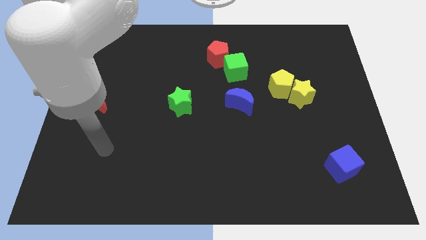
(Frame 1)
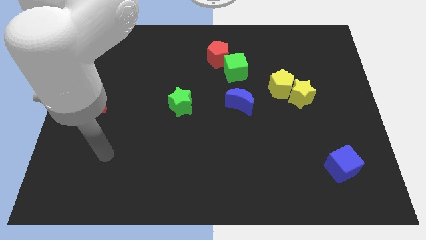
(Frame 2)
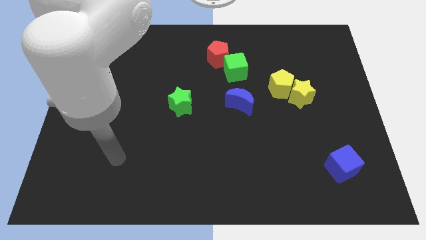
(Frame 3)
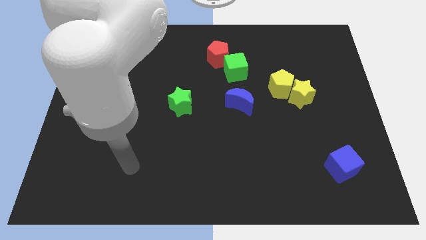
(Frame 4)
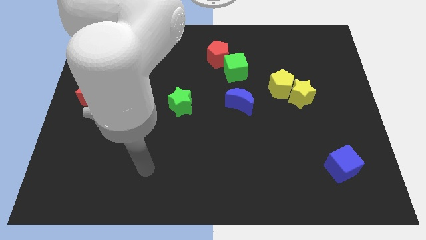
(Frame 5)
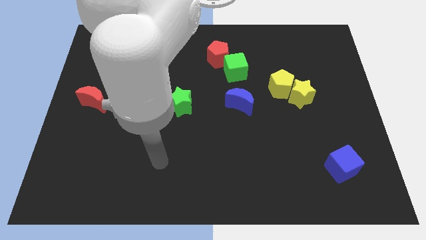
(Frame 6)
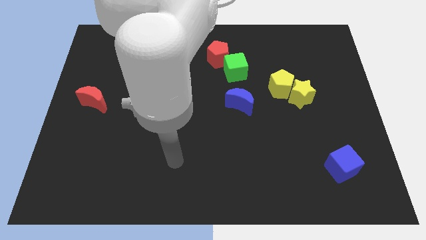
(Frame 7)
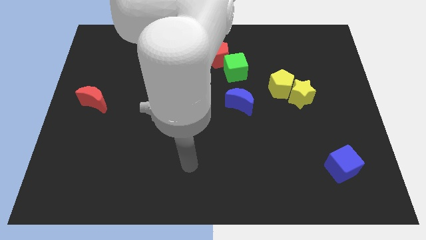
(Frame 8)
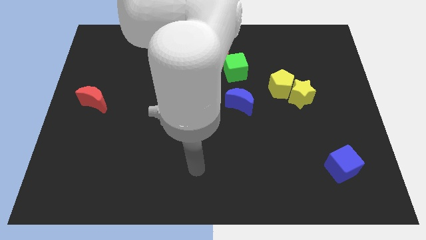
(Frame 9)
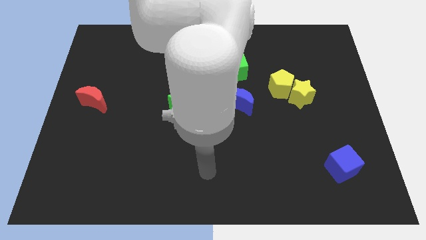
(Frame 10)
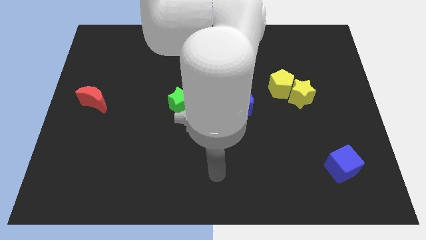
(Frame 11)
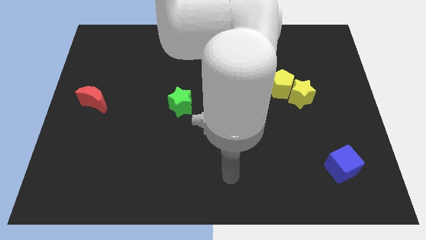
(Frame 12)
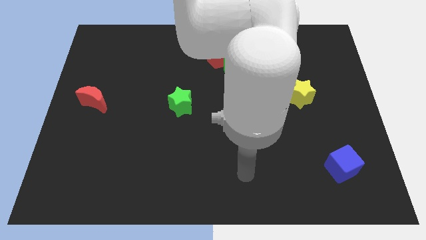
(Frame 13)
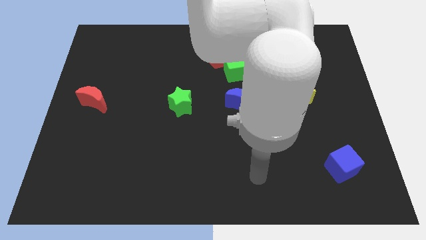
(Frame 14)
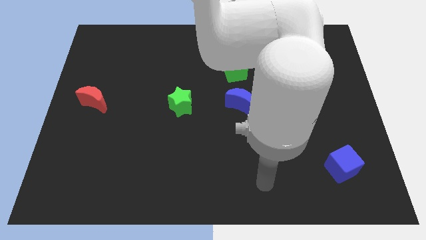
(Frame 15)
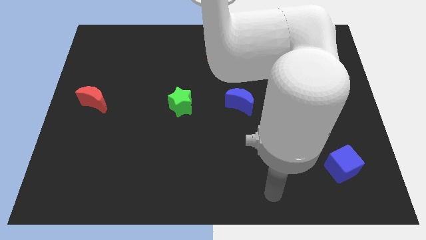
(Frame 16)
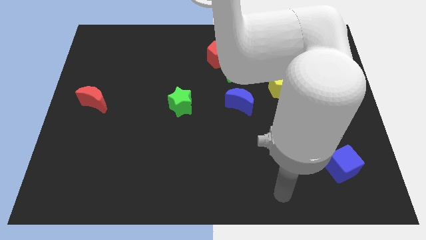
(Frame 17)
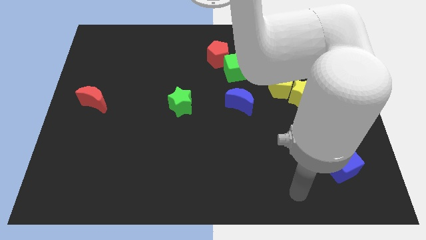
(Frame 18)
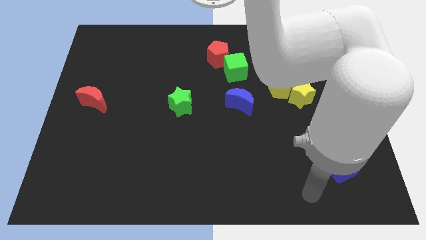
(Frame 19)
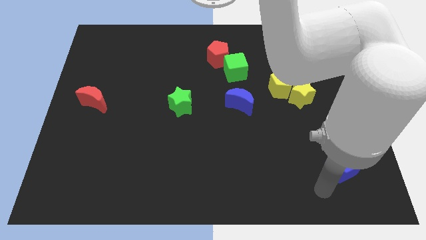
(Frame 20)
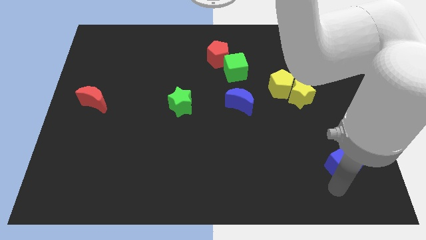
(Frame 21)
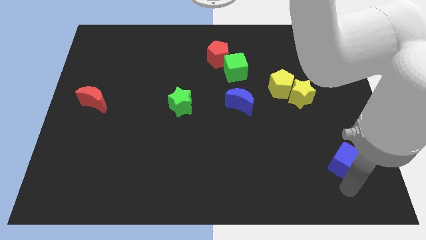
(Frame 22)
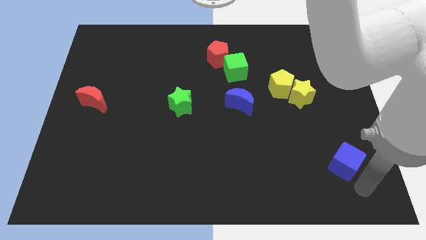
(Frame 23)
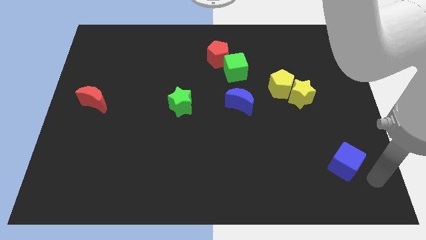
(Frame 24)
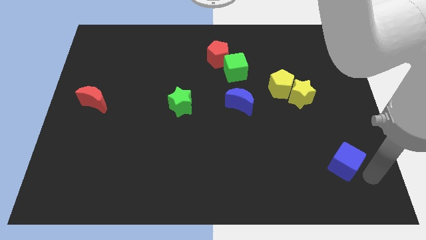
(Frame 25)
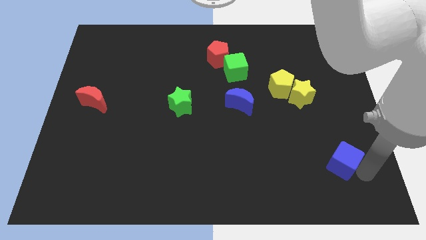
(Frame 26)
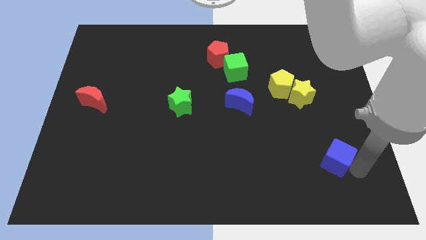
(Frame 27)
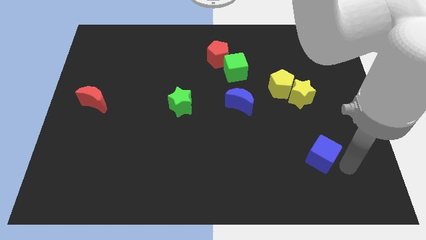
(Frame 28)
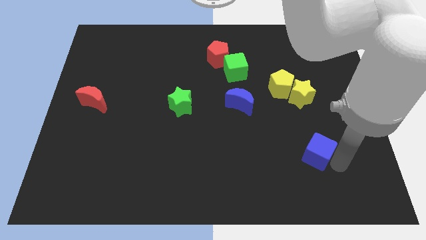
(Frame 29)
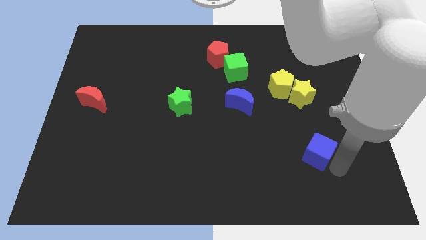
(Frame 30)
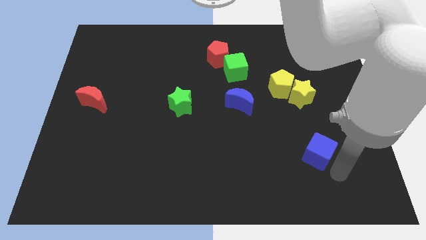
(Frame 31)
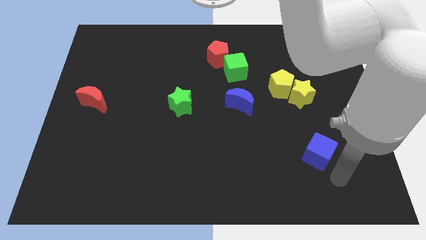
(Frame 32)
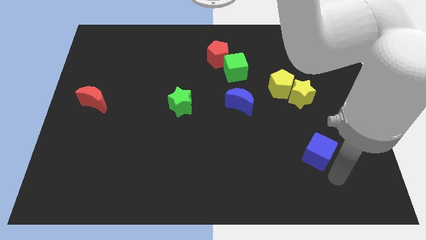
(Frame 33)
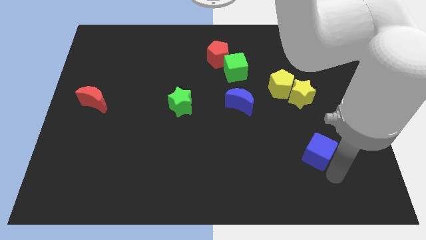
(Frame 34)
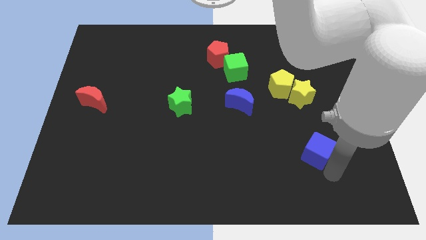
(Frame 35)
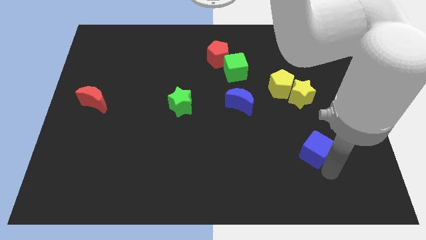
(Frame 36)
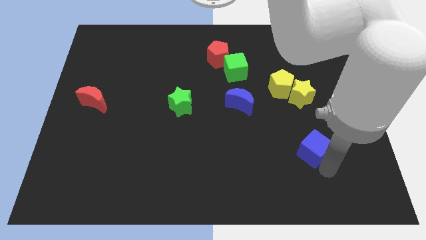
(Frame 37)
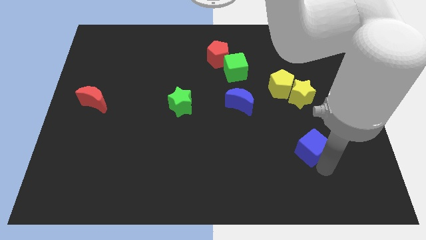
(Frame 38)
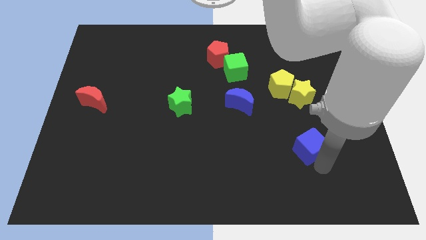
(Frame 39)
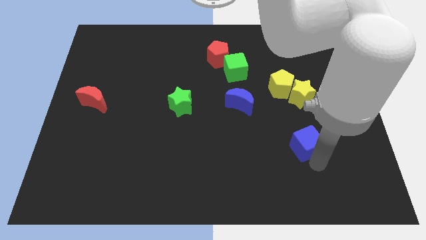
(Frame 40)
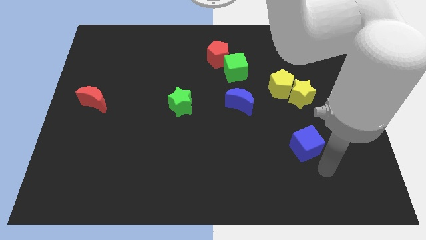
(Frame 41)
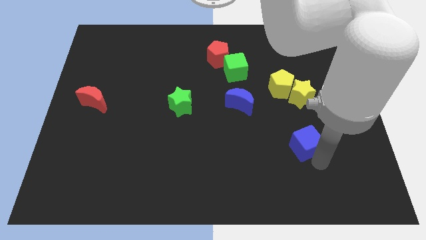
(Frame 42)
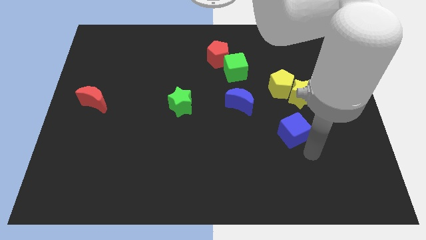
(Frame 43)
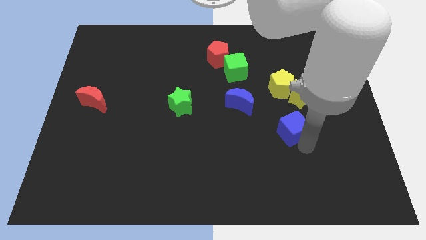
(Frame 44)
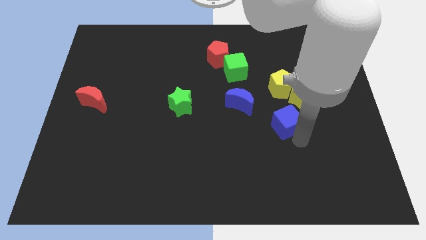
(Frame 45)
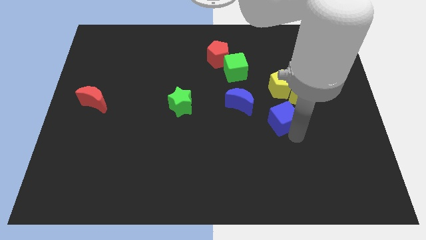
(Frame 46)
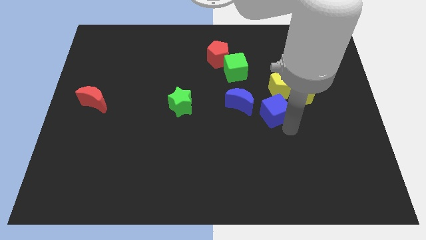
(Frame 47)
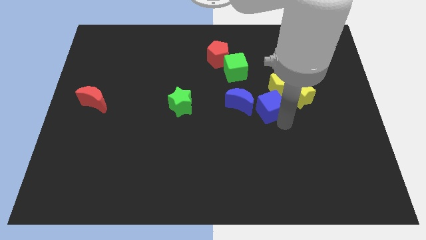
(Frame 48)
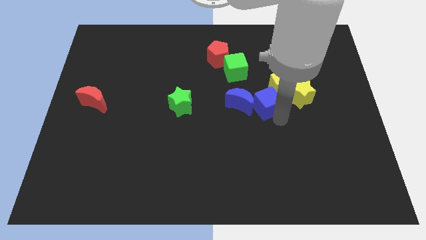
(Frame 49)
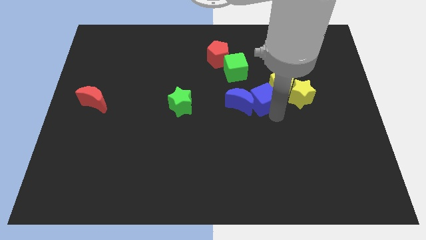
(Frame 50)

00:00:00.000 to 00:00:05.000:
put the blue cube left of the yellow pentagon

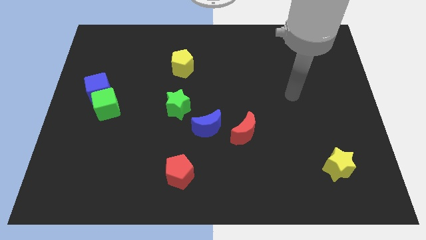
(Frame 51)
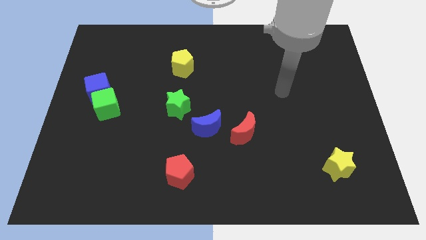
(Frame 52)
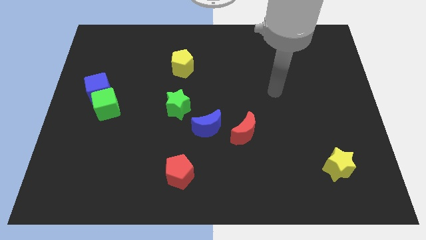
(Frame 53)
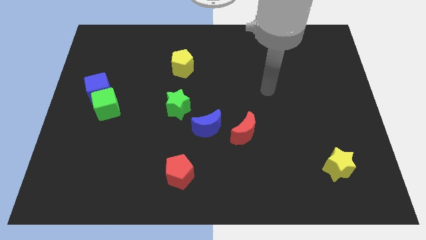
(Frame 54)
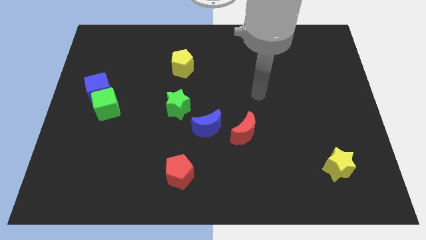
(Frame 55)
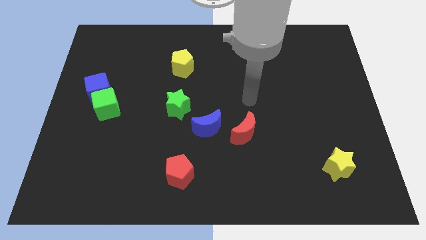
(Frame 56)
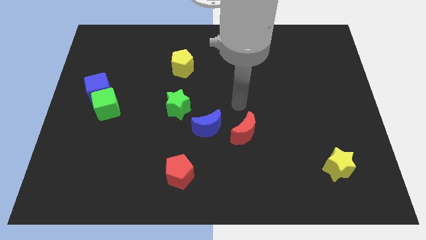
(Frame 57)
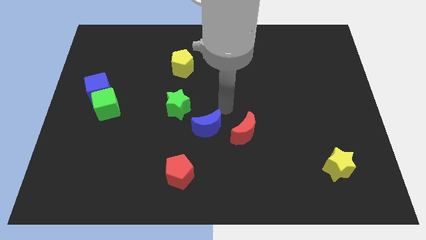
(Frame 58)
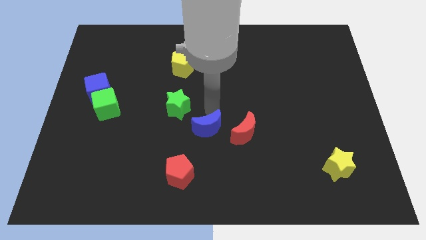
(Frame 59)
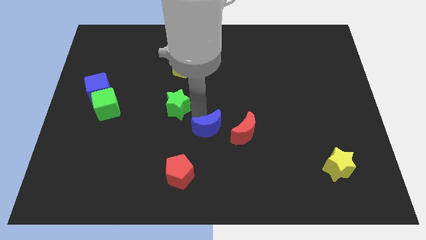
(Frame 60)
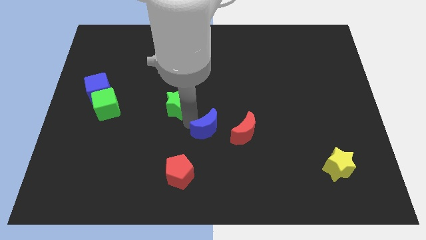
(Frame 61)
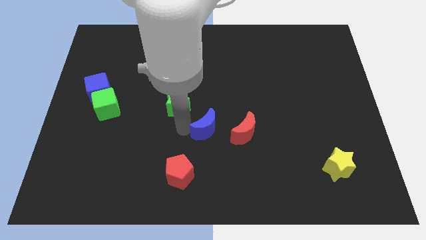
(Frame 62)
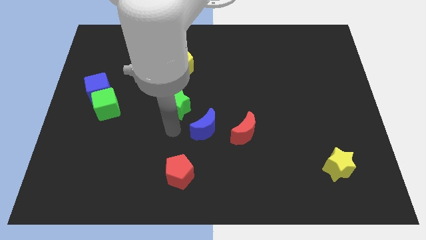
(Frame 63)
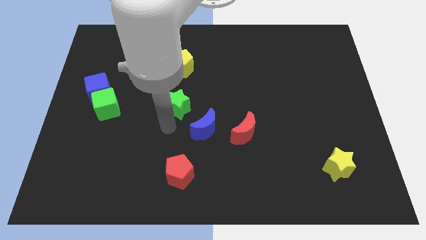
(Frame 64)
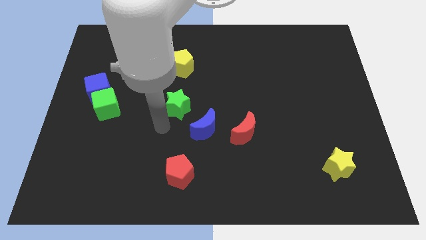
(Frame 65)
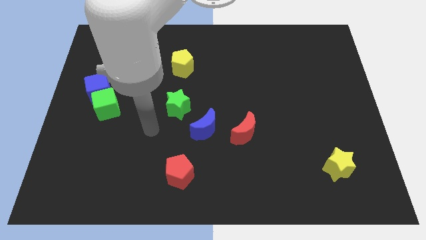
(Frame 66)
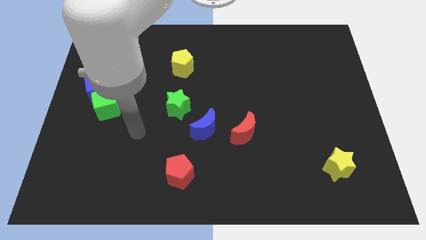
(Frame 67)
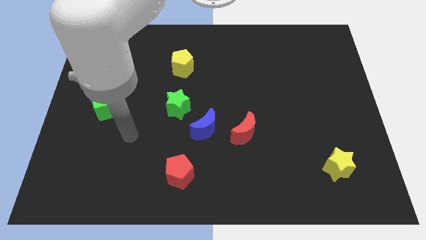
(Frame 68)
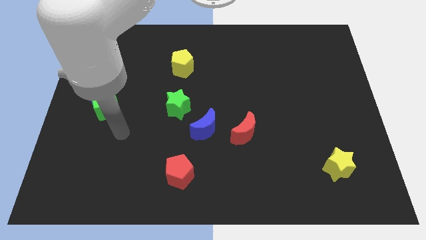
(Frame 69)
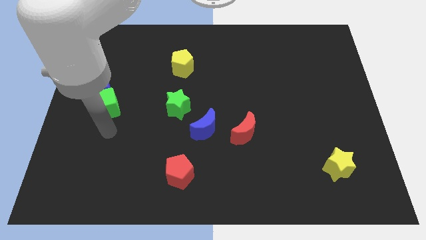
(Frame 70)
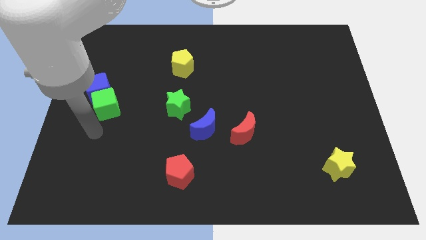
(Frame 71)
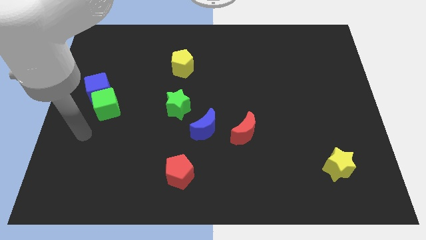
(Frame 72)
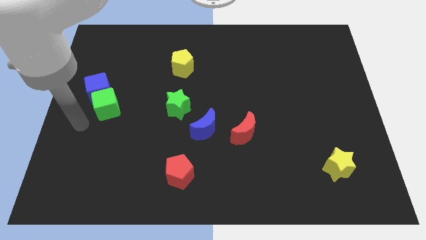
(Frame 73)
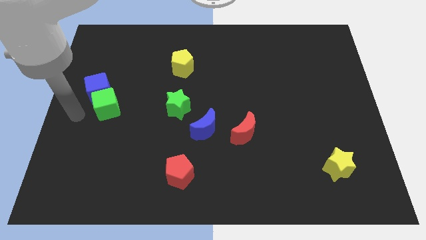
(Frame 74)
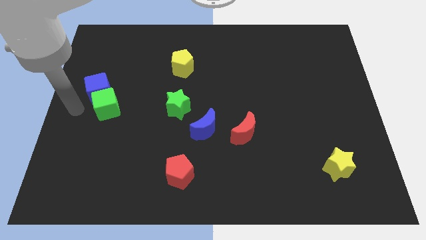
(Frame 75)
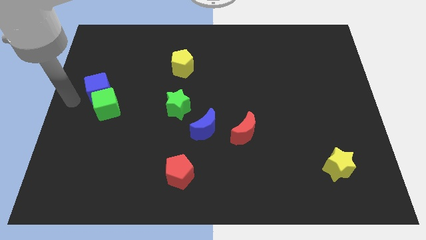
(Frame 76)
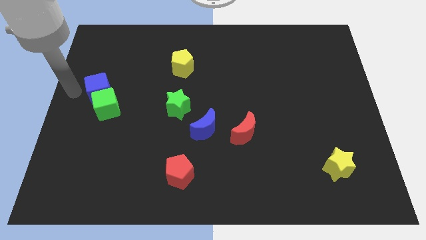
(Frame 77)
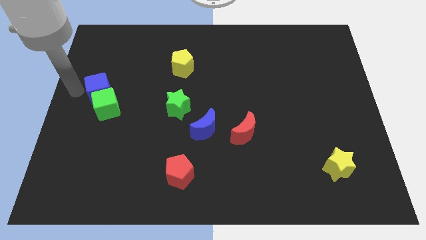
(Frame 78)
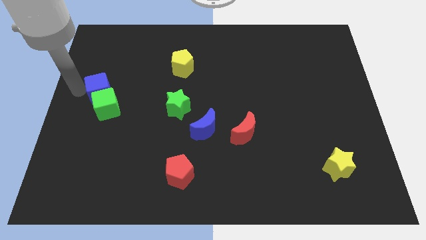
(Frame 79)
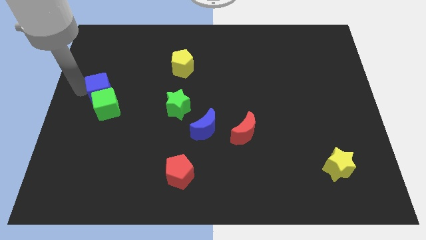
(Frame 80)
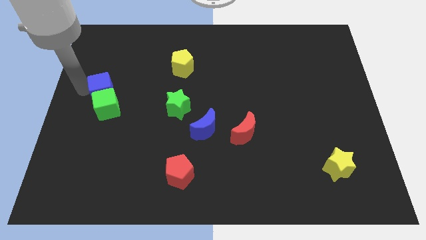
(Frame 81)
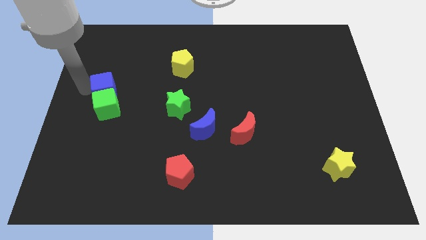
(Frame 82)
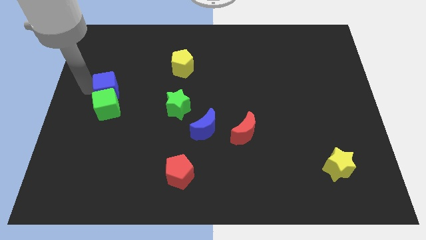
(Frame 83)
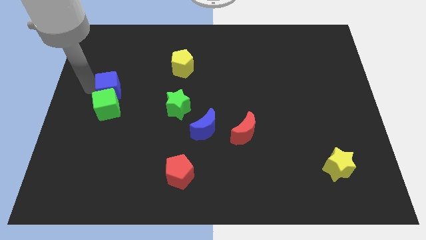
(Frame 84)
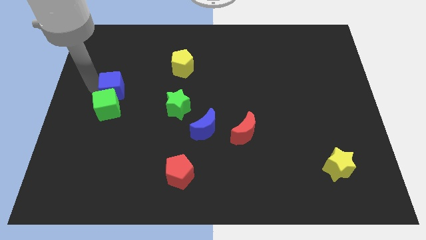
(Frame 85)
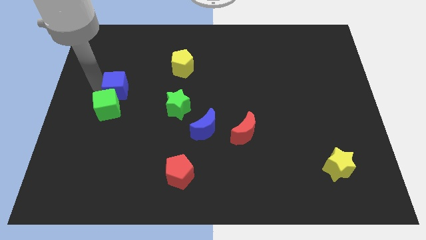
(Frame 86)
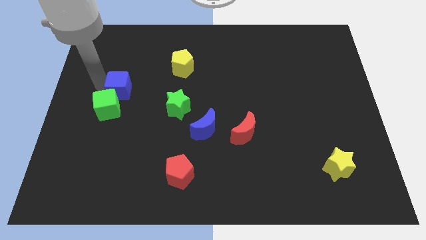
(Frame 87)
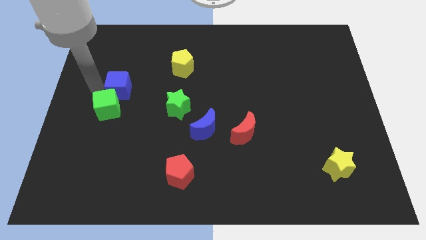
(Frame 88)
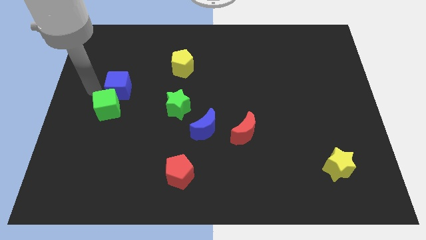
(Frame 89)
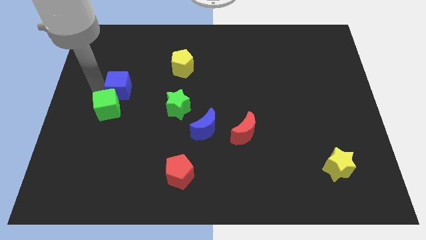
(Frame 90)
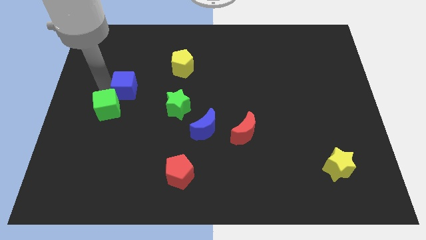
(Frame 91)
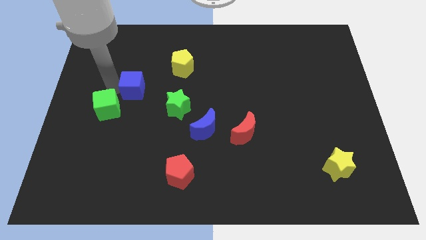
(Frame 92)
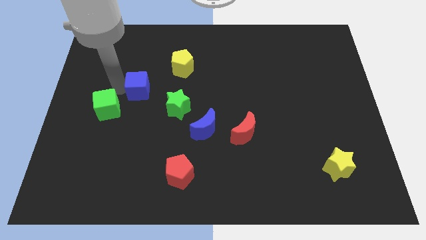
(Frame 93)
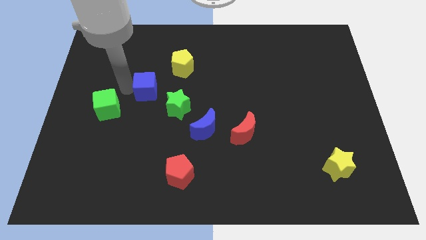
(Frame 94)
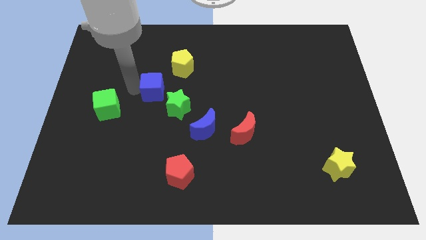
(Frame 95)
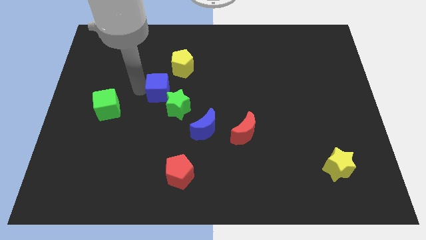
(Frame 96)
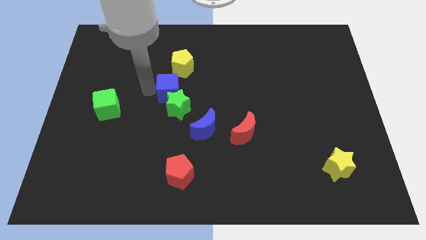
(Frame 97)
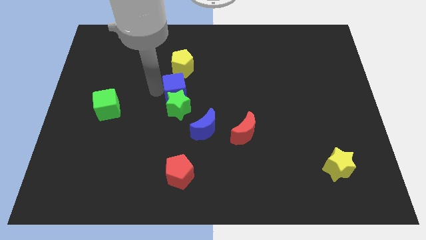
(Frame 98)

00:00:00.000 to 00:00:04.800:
push the blue cube to the top right side of the green star
